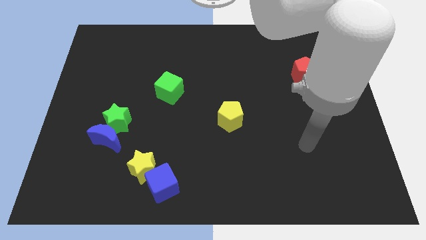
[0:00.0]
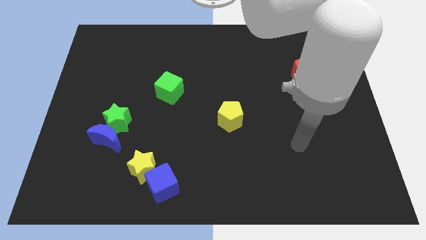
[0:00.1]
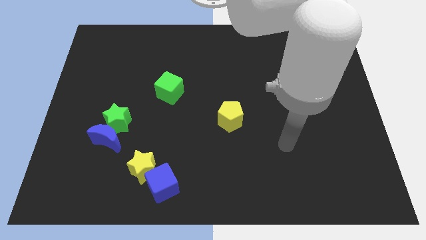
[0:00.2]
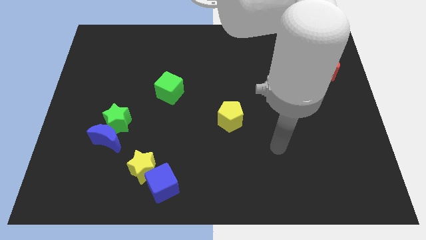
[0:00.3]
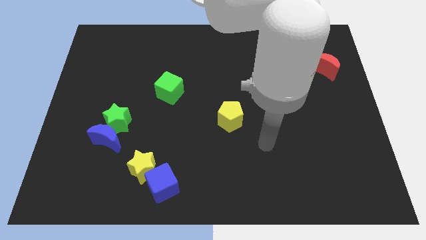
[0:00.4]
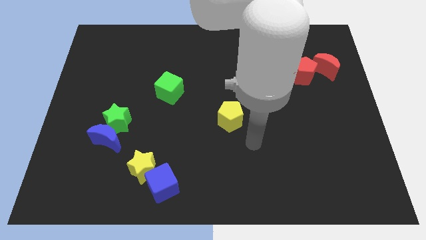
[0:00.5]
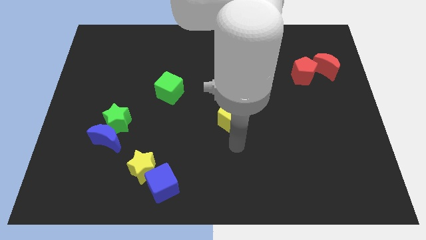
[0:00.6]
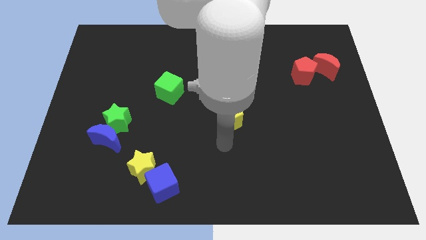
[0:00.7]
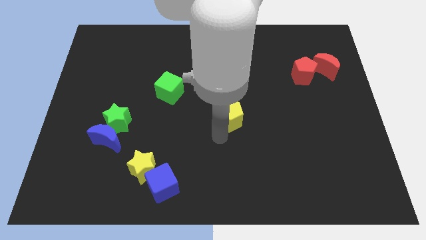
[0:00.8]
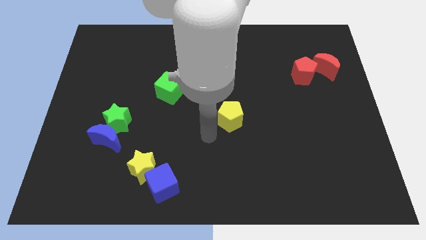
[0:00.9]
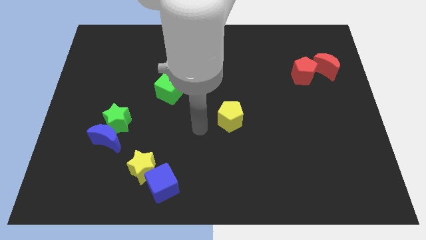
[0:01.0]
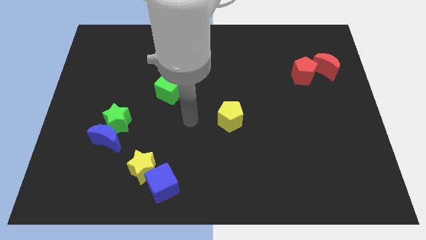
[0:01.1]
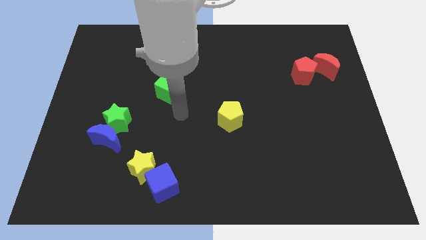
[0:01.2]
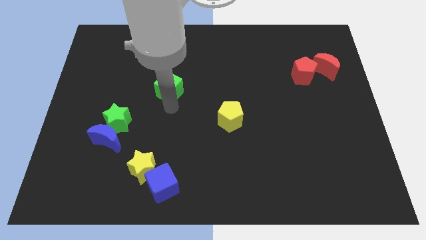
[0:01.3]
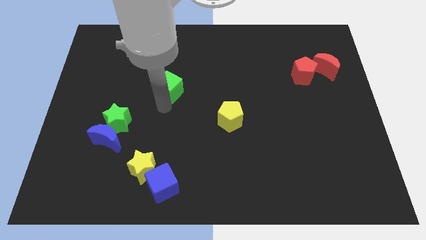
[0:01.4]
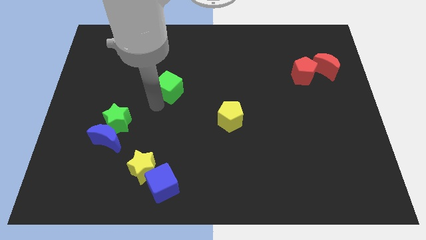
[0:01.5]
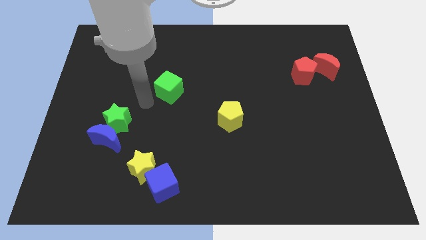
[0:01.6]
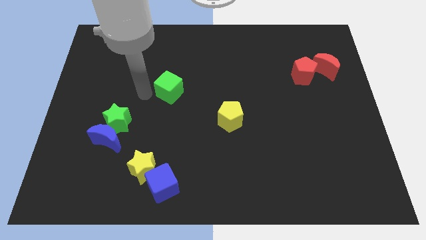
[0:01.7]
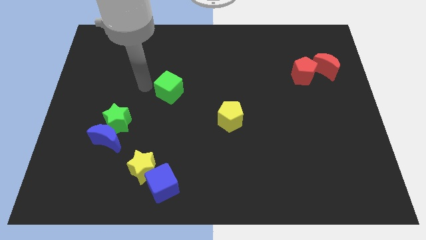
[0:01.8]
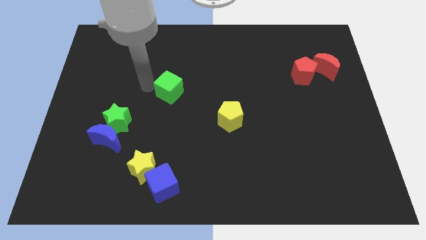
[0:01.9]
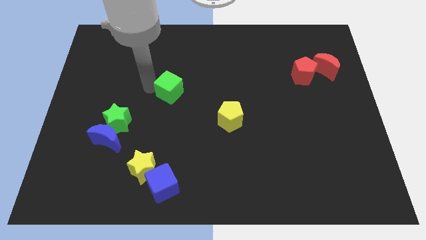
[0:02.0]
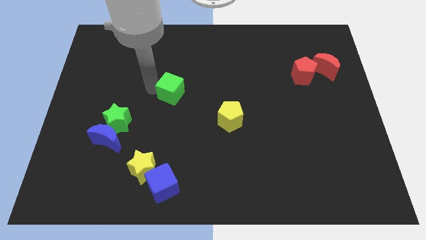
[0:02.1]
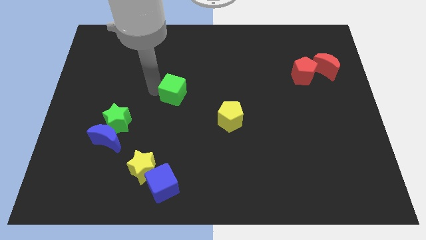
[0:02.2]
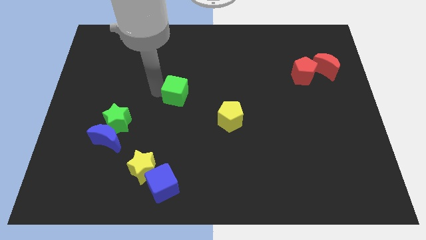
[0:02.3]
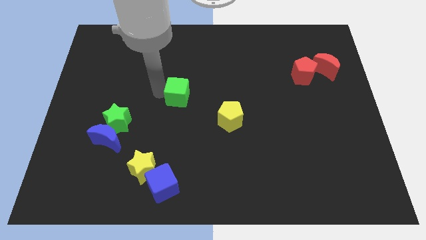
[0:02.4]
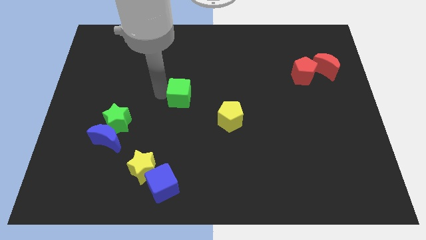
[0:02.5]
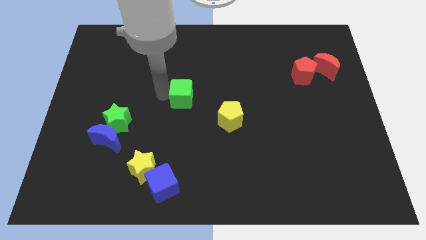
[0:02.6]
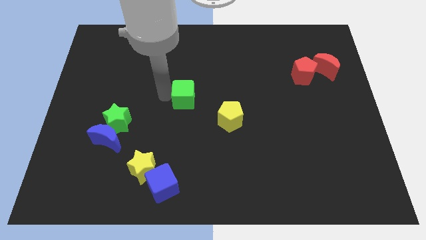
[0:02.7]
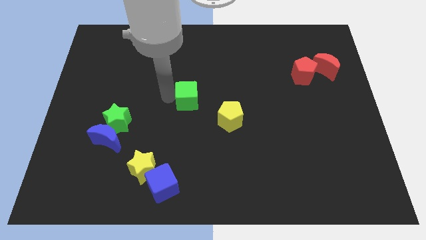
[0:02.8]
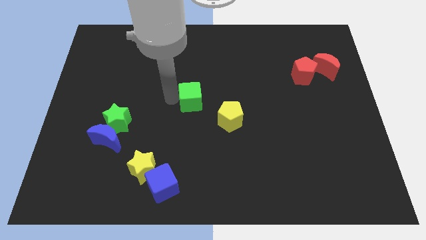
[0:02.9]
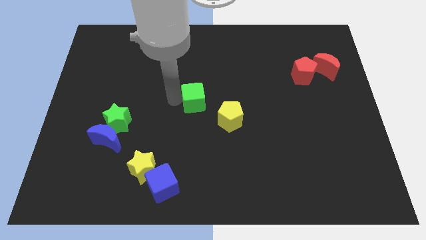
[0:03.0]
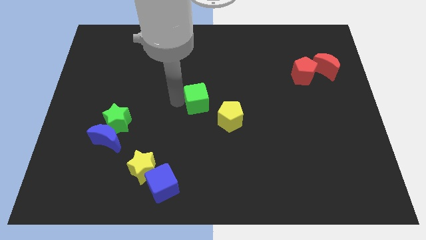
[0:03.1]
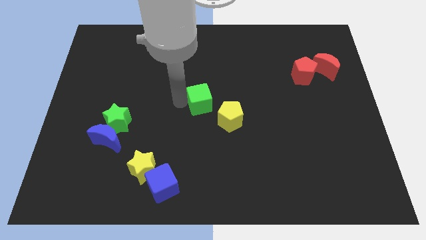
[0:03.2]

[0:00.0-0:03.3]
move the green cube right a little bit

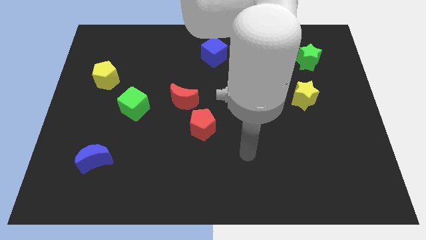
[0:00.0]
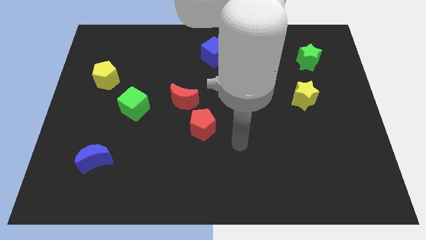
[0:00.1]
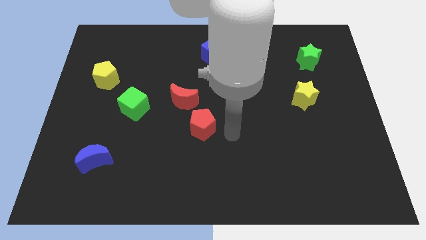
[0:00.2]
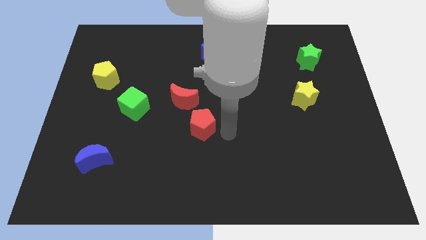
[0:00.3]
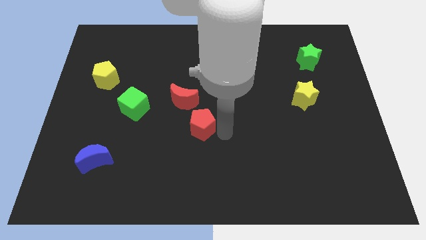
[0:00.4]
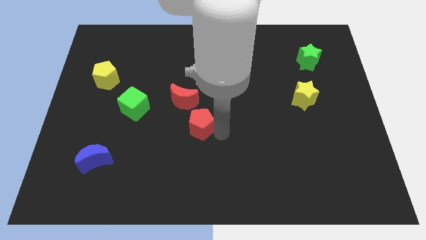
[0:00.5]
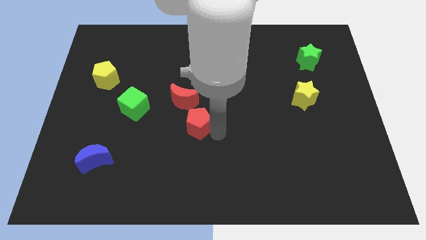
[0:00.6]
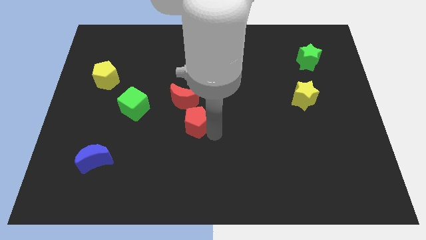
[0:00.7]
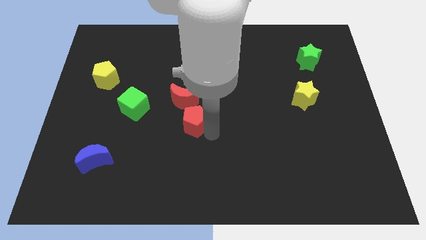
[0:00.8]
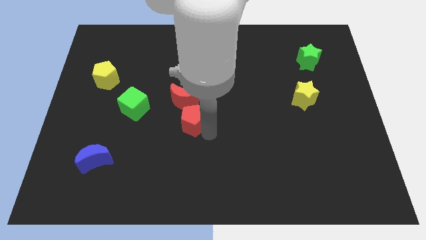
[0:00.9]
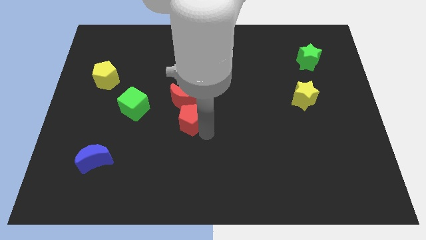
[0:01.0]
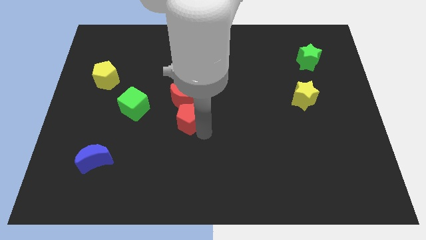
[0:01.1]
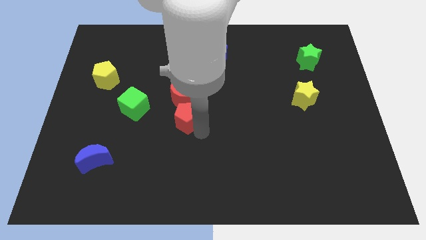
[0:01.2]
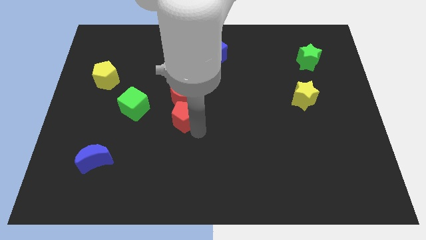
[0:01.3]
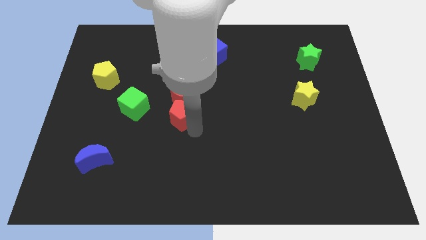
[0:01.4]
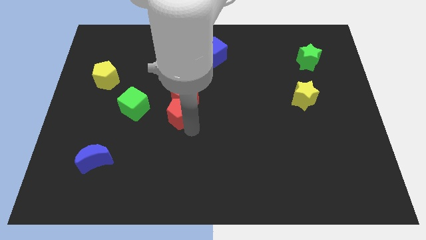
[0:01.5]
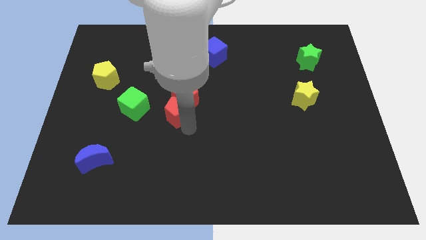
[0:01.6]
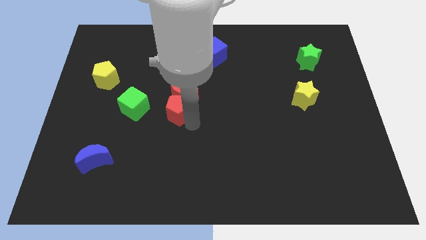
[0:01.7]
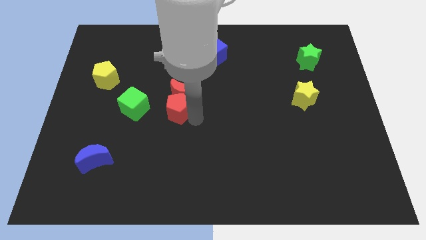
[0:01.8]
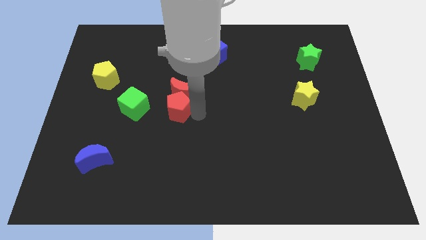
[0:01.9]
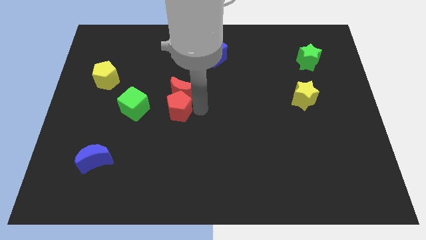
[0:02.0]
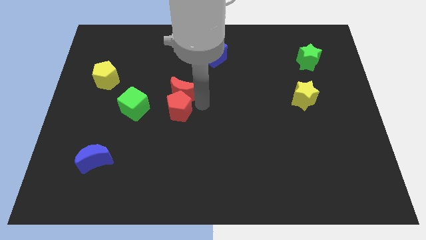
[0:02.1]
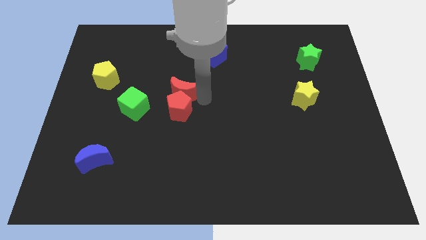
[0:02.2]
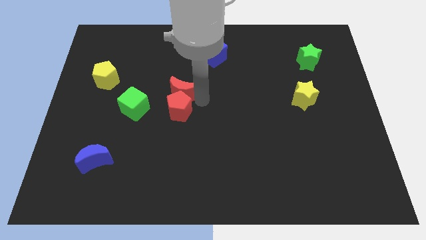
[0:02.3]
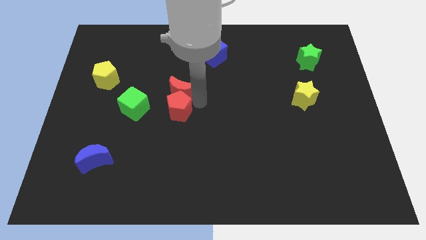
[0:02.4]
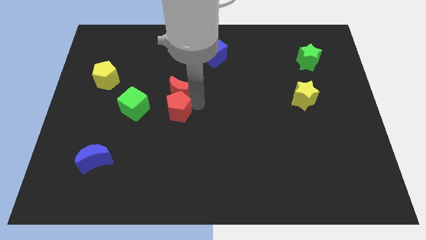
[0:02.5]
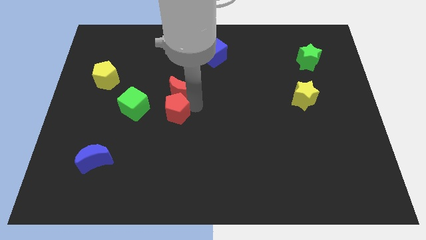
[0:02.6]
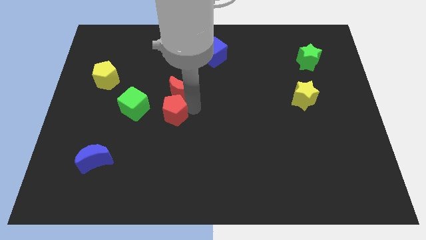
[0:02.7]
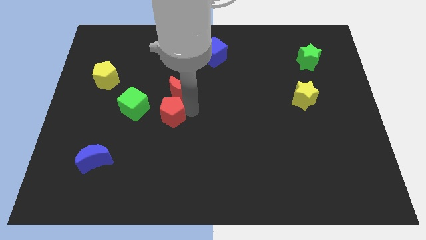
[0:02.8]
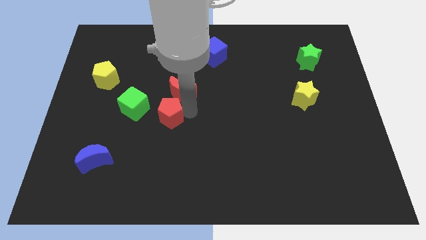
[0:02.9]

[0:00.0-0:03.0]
slightly slide the red pentagon left

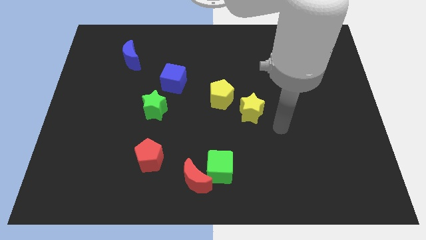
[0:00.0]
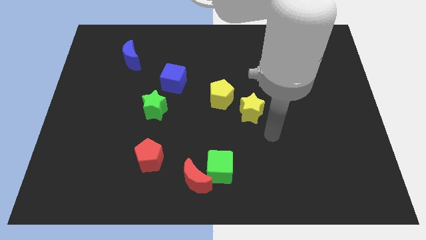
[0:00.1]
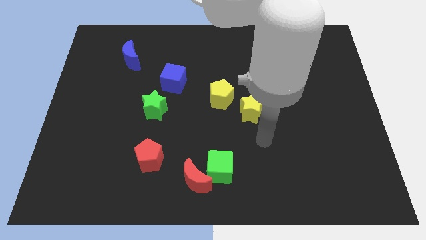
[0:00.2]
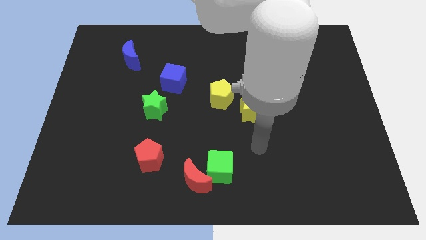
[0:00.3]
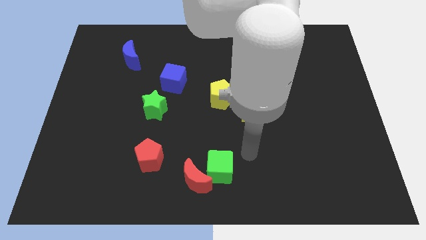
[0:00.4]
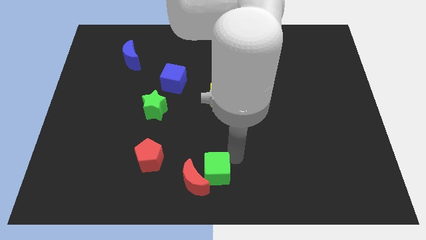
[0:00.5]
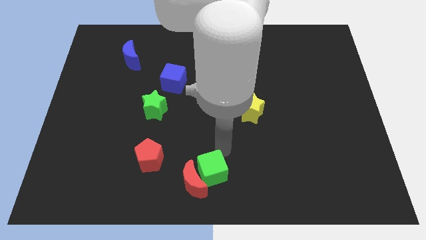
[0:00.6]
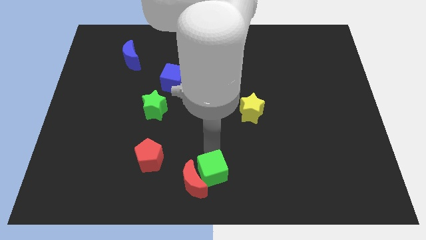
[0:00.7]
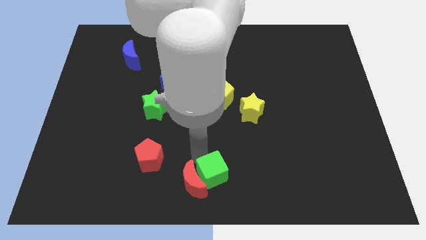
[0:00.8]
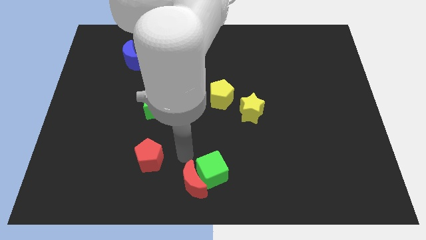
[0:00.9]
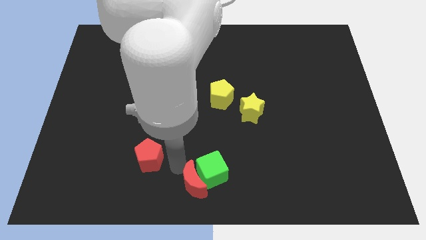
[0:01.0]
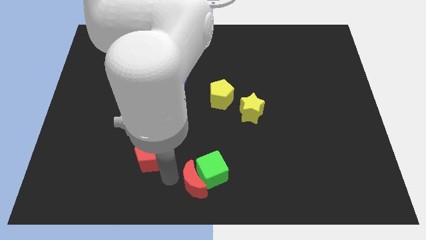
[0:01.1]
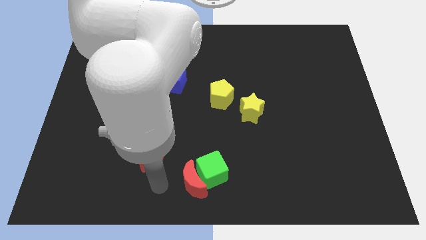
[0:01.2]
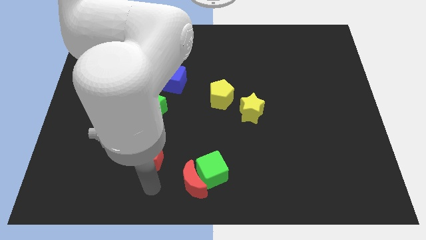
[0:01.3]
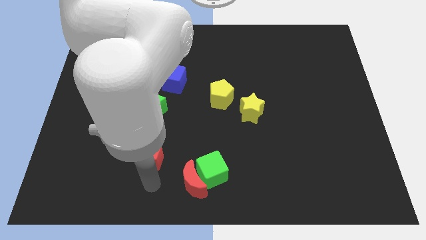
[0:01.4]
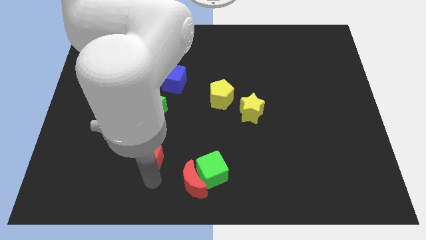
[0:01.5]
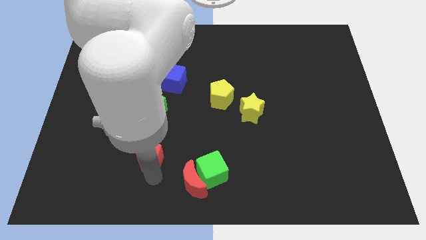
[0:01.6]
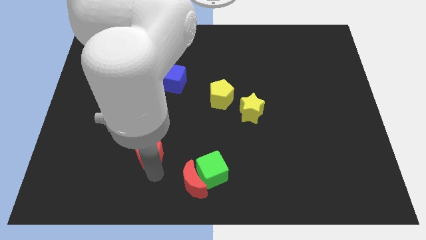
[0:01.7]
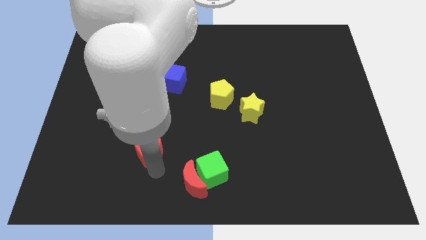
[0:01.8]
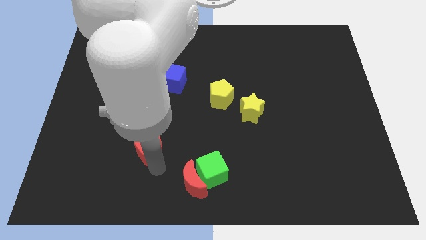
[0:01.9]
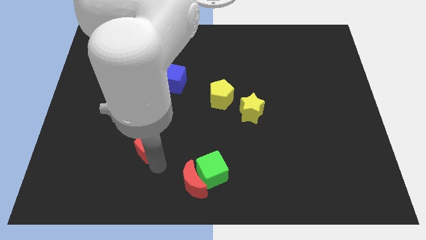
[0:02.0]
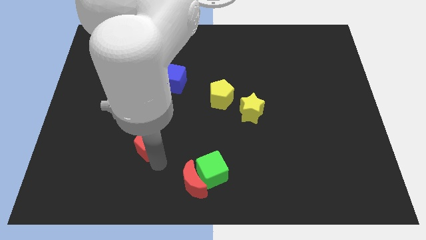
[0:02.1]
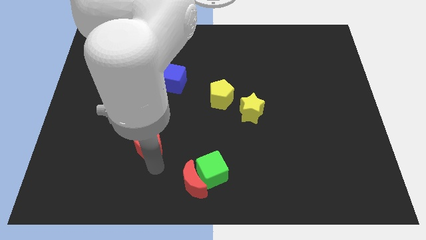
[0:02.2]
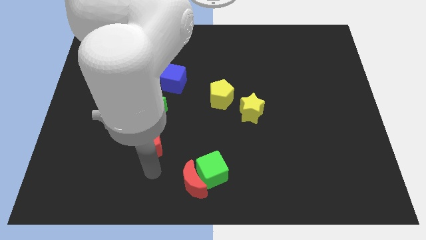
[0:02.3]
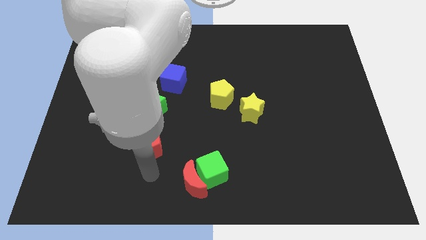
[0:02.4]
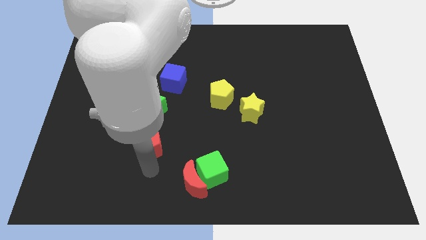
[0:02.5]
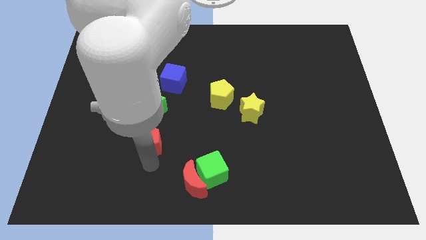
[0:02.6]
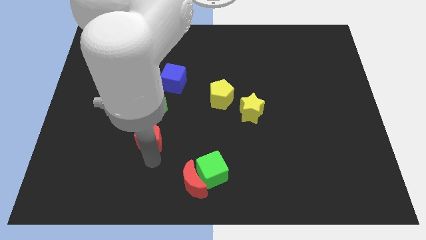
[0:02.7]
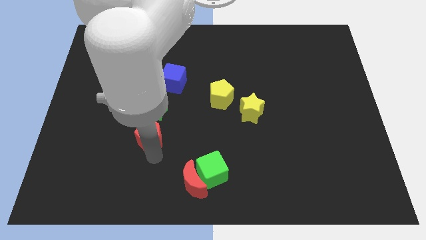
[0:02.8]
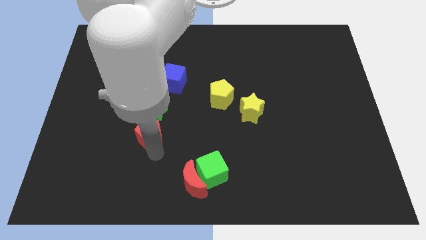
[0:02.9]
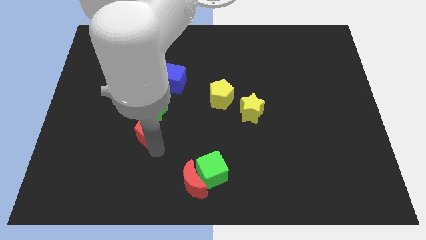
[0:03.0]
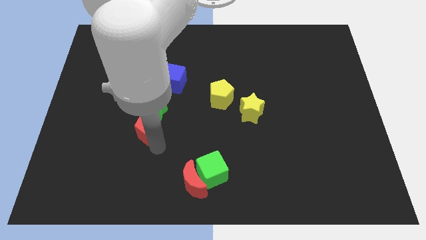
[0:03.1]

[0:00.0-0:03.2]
slide the red pentagon a bit upwards
